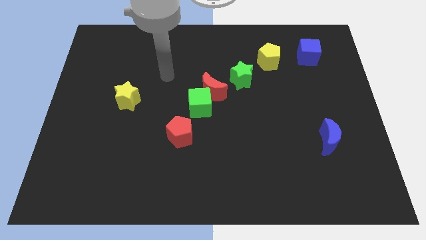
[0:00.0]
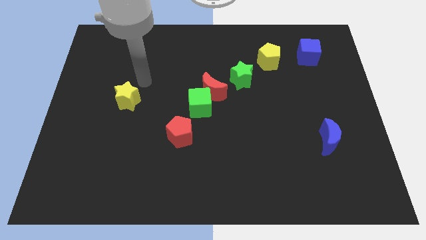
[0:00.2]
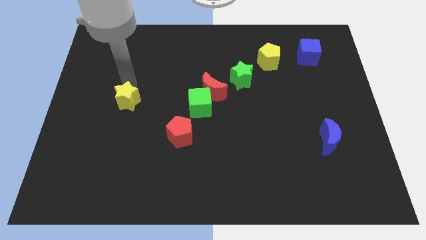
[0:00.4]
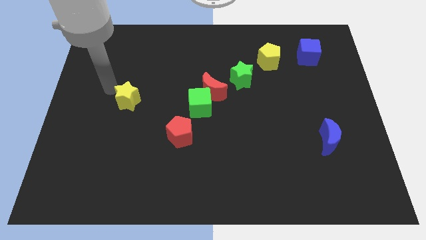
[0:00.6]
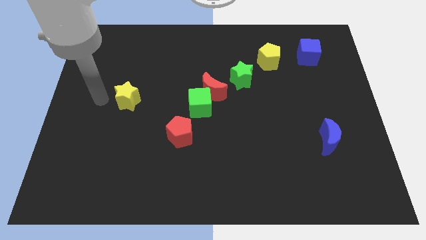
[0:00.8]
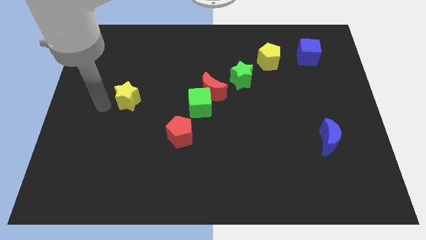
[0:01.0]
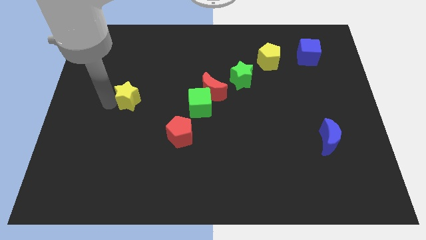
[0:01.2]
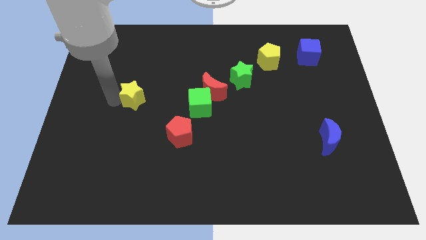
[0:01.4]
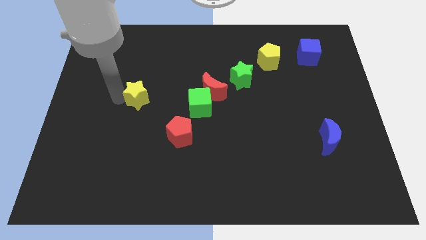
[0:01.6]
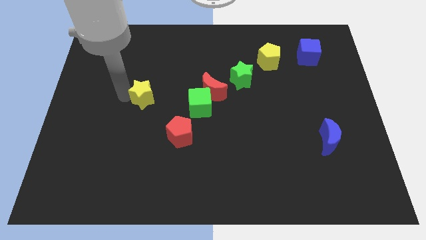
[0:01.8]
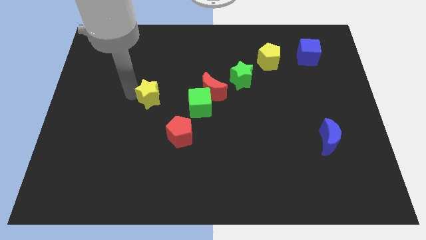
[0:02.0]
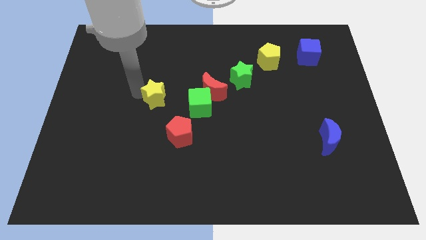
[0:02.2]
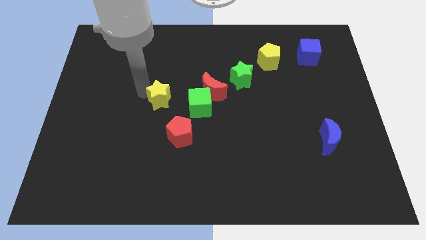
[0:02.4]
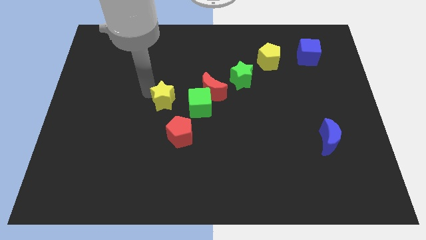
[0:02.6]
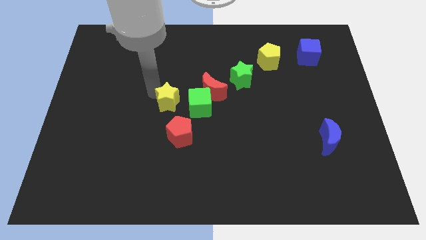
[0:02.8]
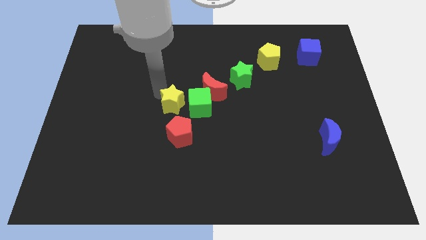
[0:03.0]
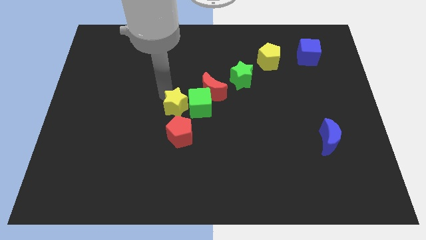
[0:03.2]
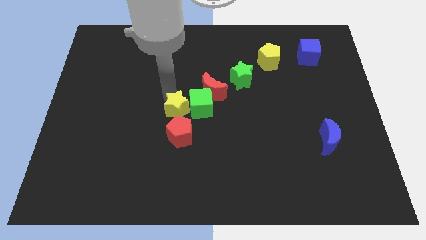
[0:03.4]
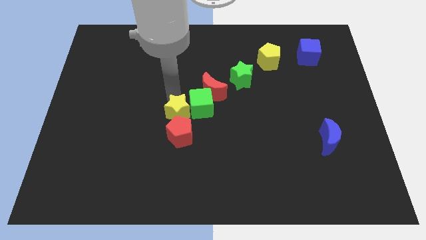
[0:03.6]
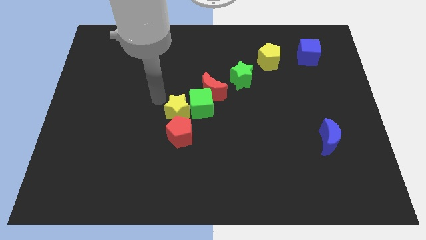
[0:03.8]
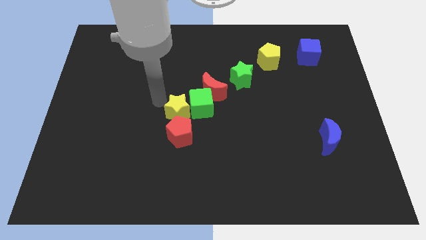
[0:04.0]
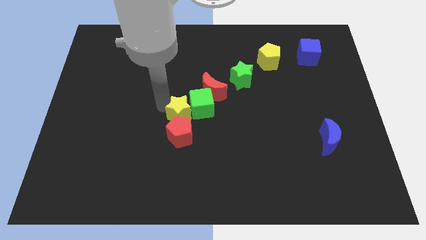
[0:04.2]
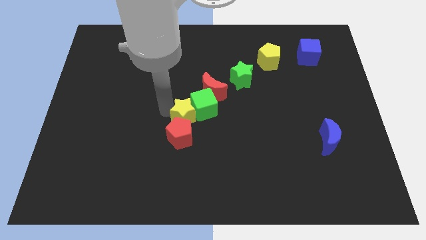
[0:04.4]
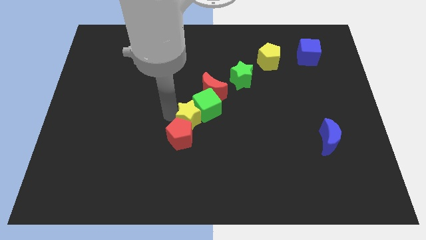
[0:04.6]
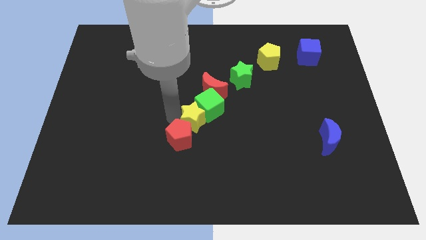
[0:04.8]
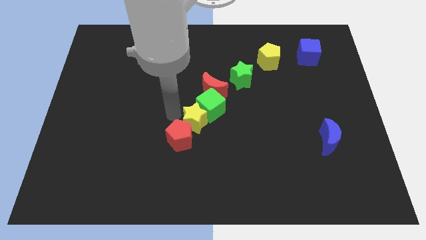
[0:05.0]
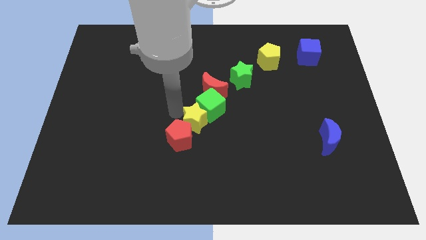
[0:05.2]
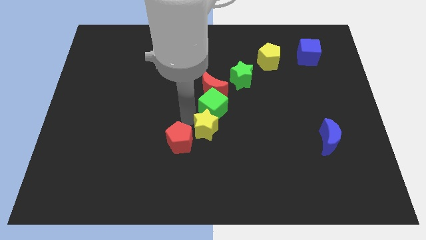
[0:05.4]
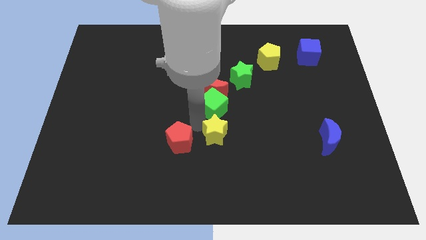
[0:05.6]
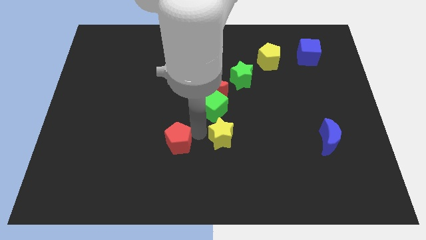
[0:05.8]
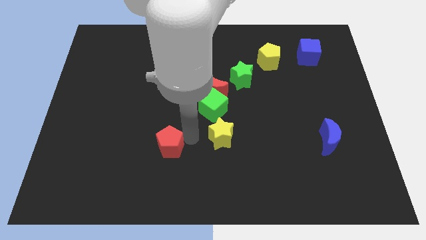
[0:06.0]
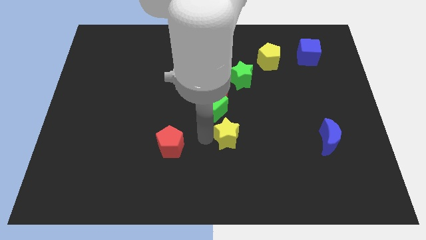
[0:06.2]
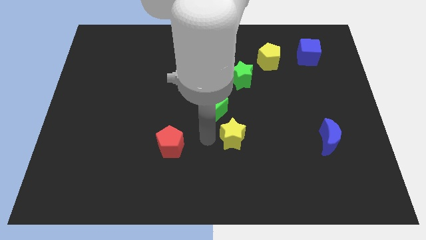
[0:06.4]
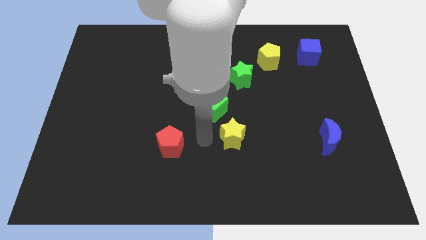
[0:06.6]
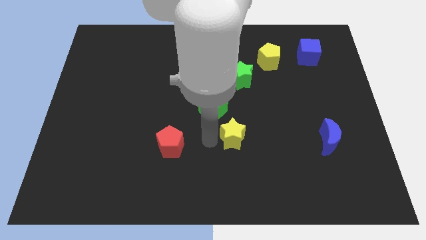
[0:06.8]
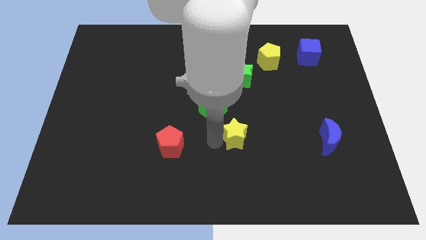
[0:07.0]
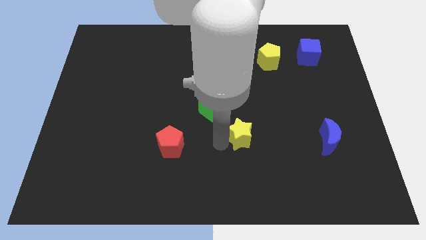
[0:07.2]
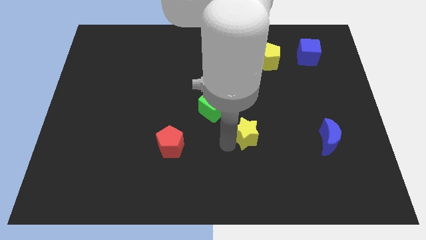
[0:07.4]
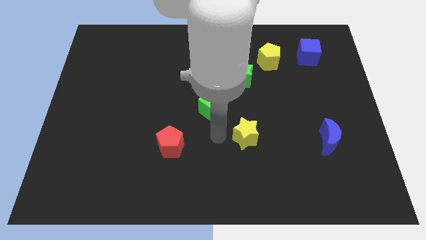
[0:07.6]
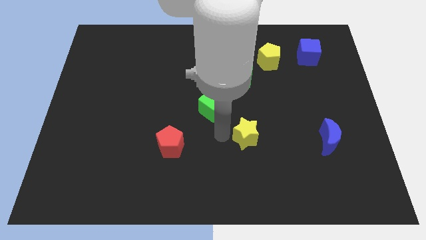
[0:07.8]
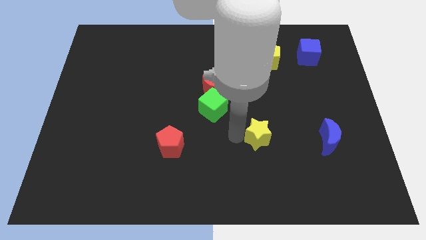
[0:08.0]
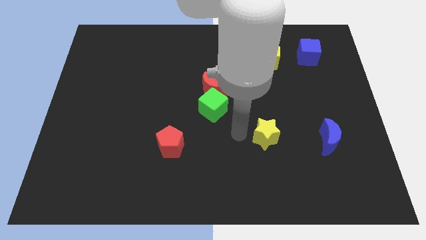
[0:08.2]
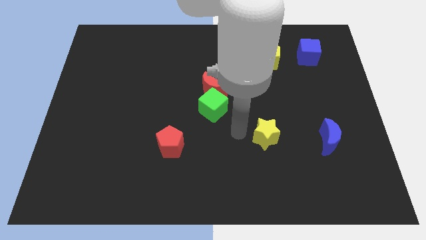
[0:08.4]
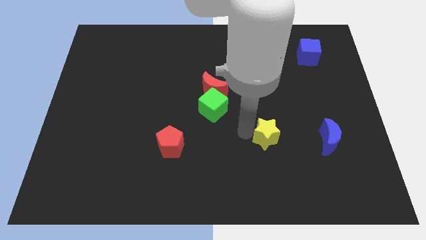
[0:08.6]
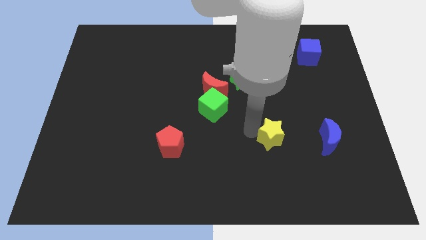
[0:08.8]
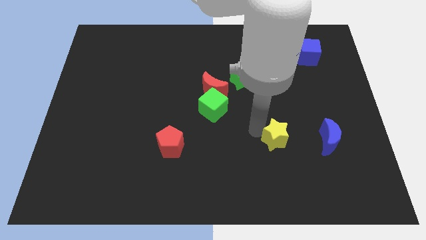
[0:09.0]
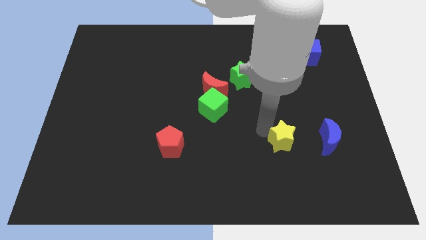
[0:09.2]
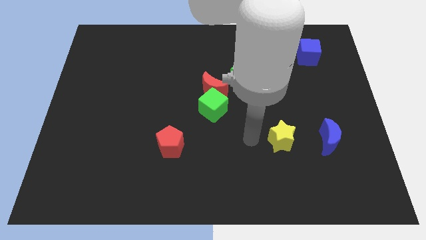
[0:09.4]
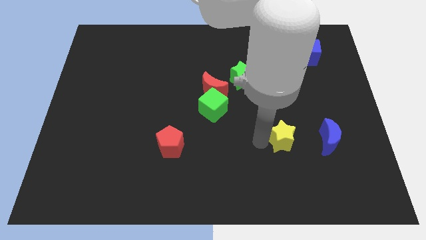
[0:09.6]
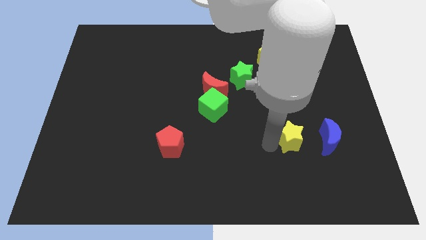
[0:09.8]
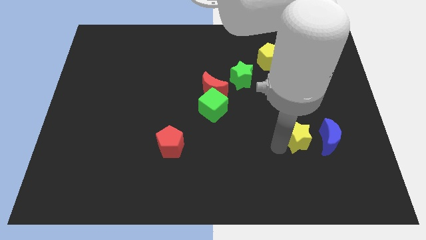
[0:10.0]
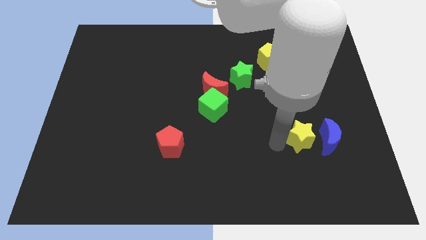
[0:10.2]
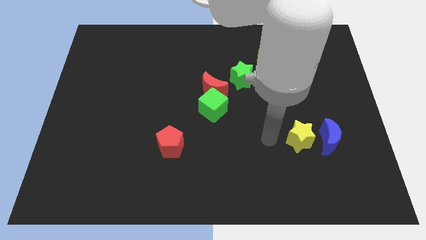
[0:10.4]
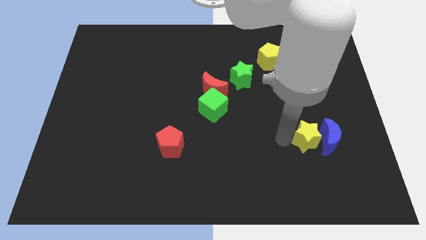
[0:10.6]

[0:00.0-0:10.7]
slide the yellow star towards the blue moon
